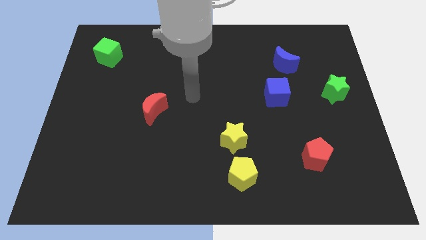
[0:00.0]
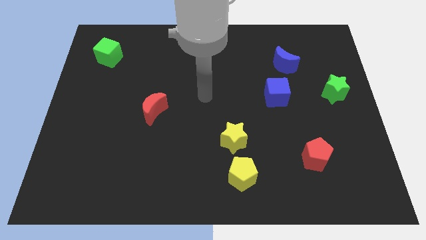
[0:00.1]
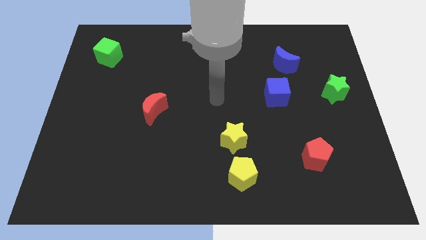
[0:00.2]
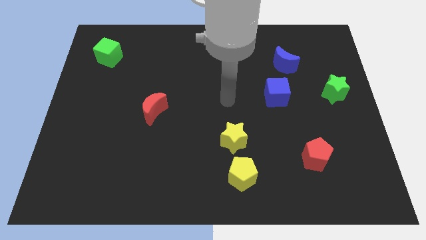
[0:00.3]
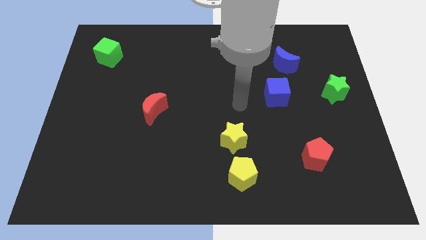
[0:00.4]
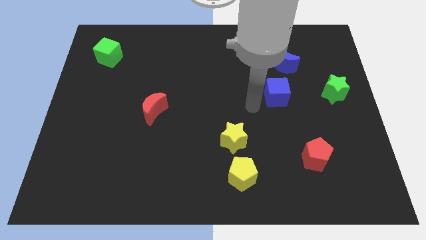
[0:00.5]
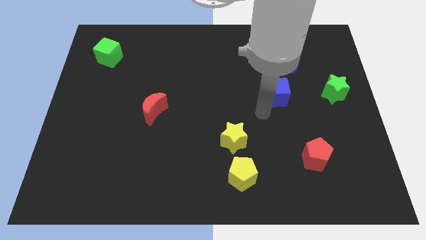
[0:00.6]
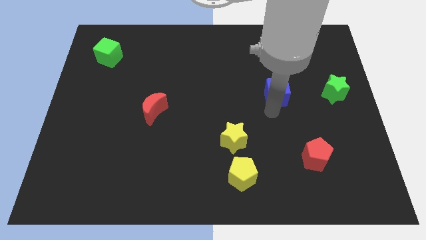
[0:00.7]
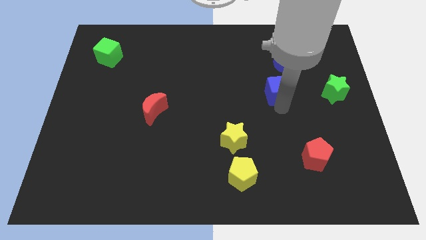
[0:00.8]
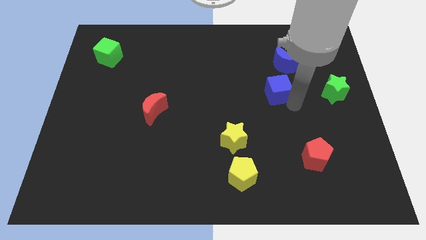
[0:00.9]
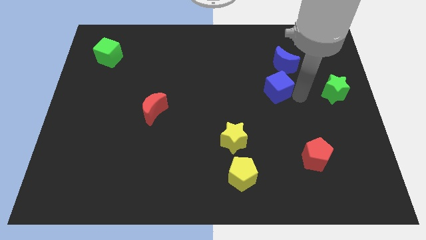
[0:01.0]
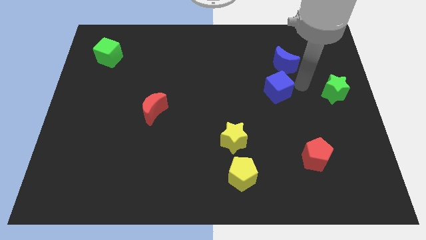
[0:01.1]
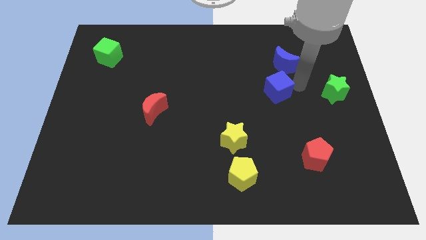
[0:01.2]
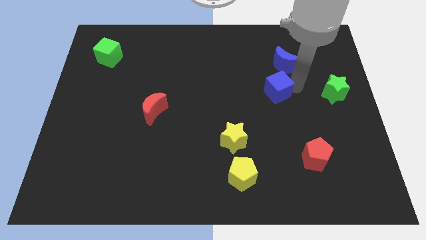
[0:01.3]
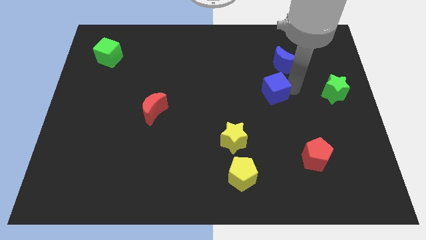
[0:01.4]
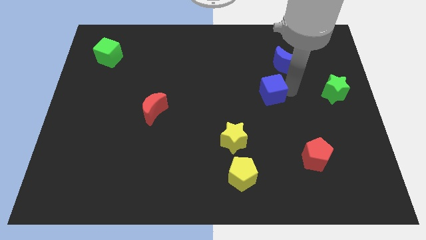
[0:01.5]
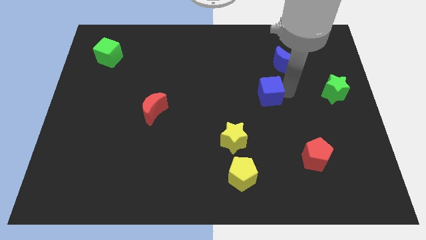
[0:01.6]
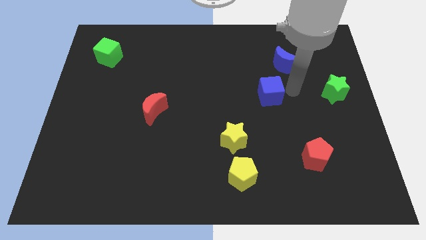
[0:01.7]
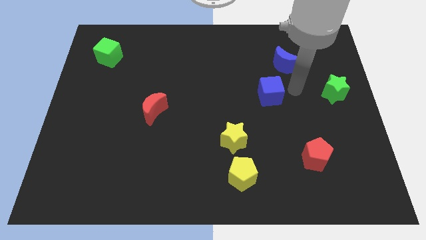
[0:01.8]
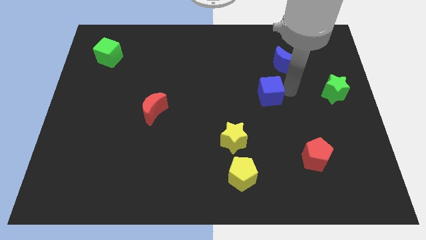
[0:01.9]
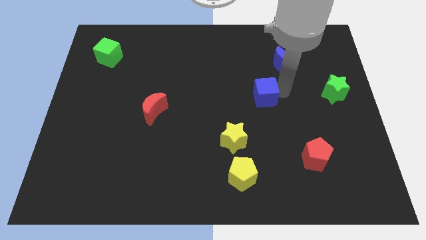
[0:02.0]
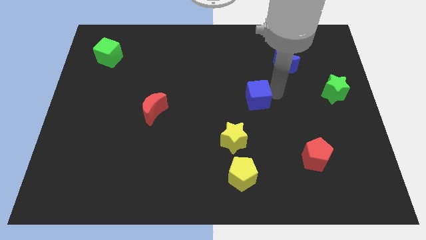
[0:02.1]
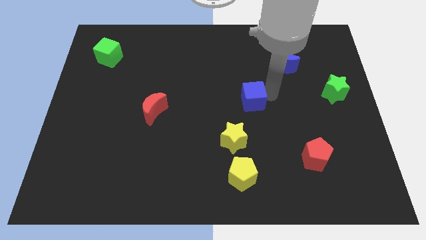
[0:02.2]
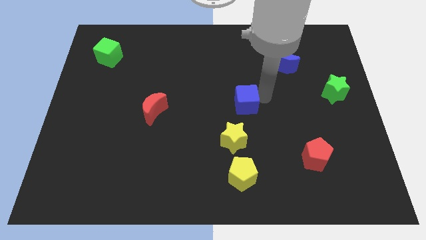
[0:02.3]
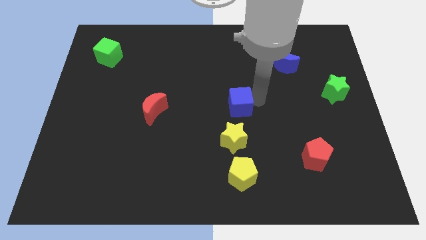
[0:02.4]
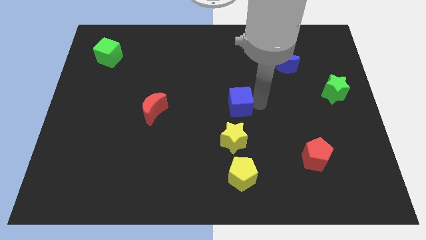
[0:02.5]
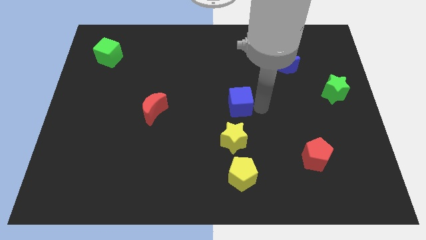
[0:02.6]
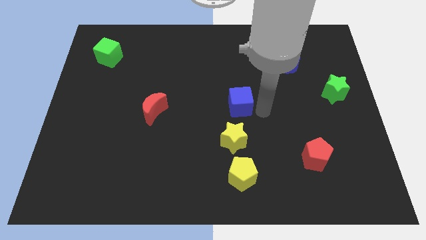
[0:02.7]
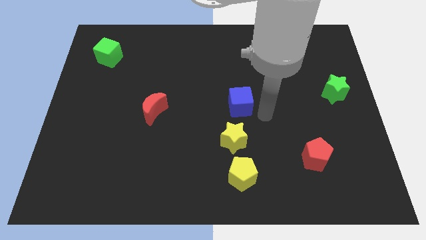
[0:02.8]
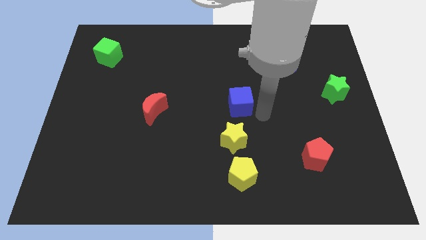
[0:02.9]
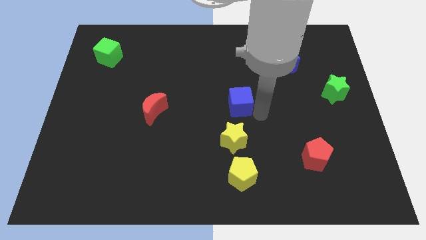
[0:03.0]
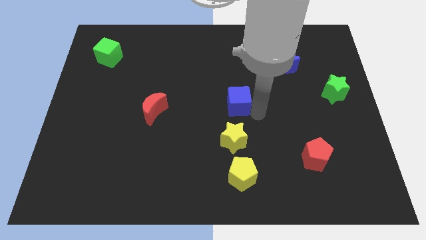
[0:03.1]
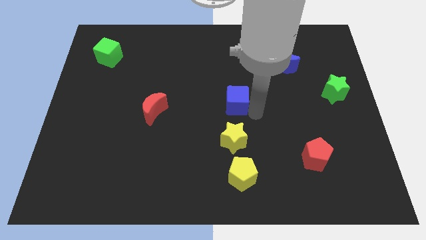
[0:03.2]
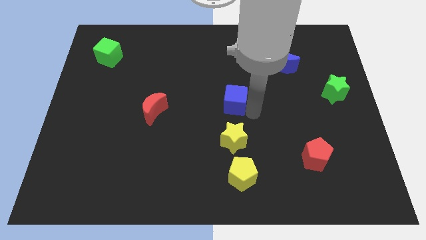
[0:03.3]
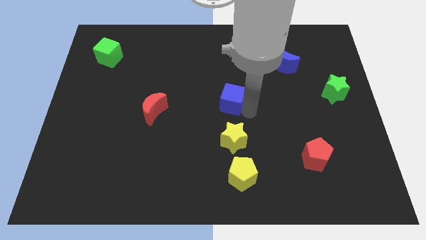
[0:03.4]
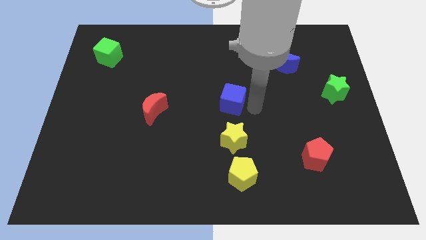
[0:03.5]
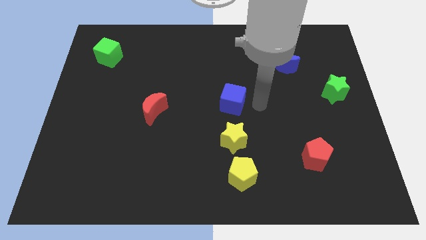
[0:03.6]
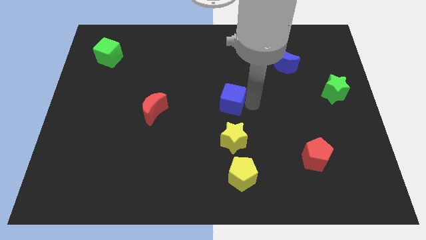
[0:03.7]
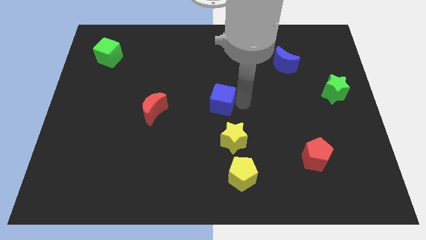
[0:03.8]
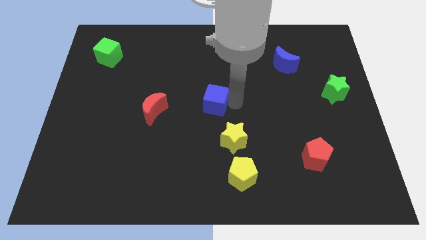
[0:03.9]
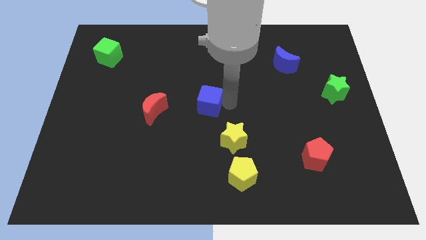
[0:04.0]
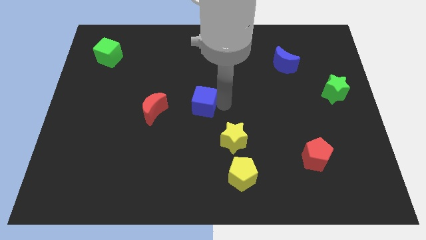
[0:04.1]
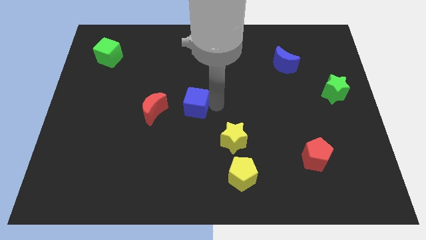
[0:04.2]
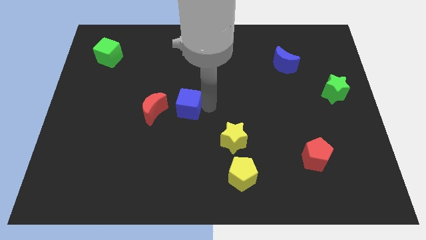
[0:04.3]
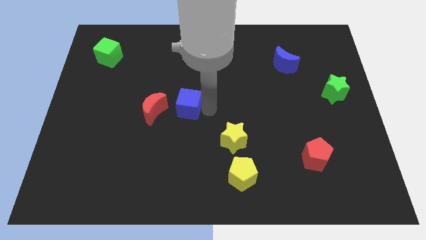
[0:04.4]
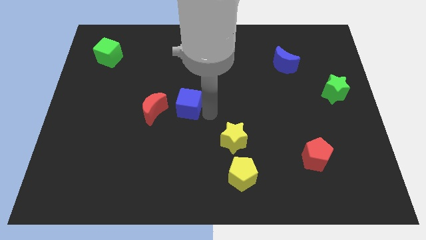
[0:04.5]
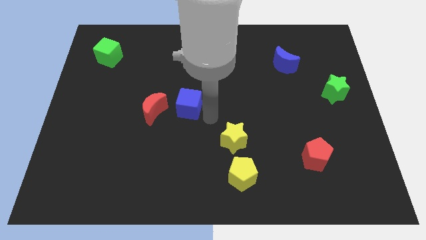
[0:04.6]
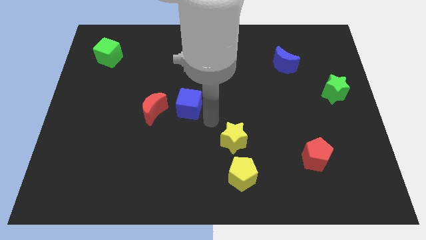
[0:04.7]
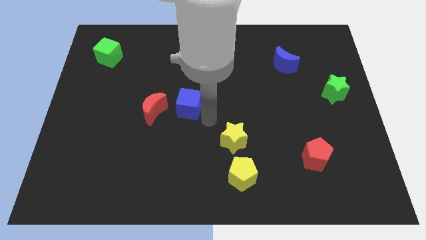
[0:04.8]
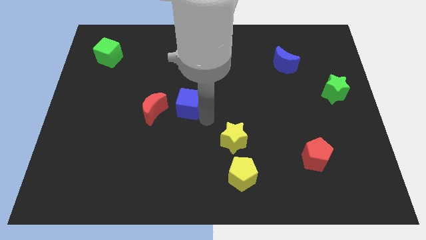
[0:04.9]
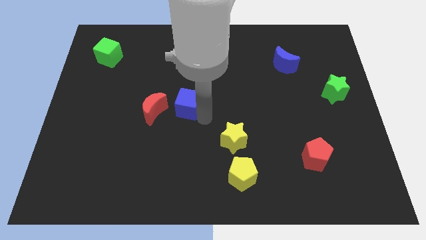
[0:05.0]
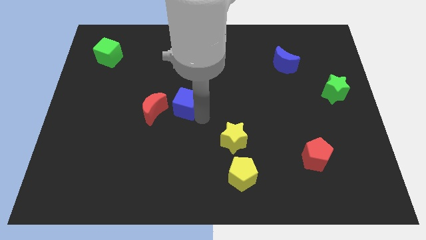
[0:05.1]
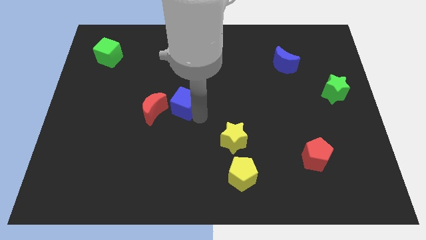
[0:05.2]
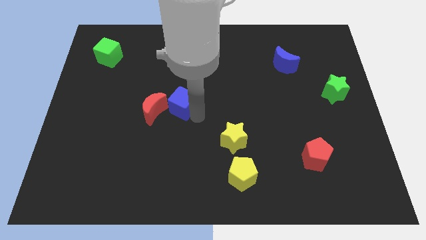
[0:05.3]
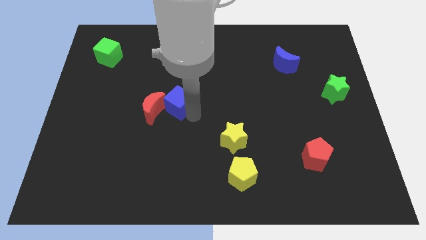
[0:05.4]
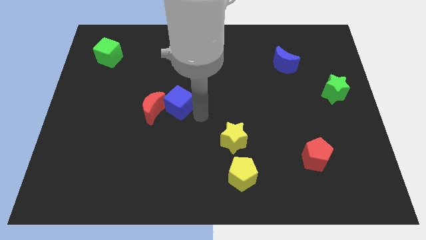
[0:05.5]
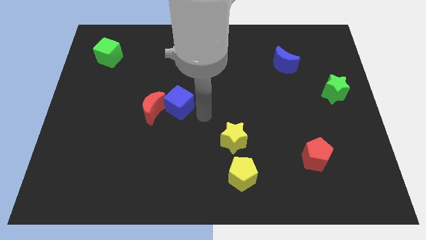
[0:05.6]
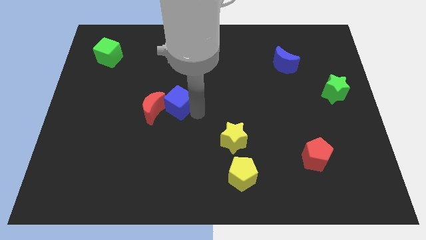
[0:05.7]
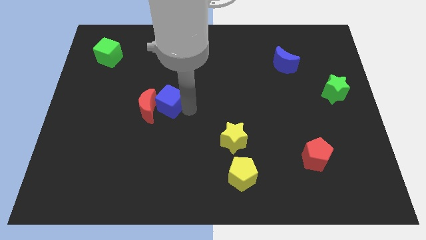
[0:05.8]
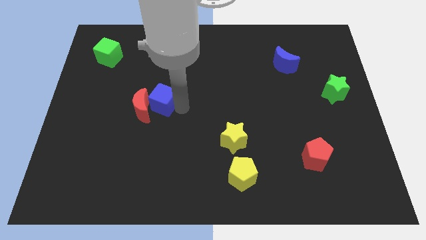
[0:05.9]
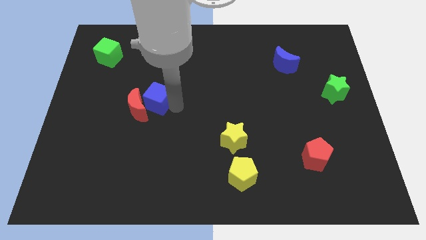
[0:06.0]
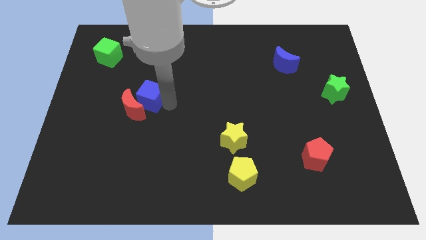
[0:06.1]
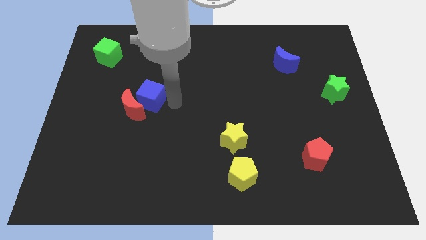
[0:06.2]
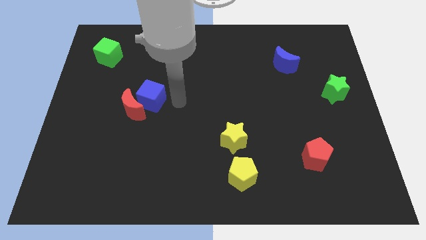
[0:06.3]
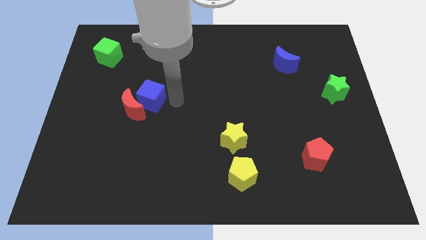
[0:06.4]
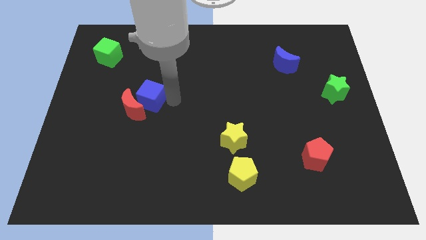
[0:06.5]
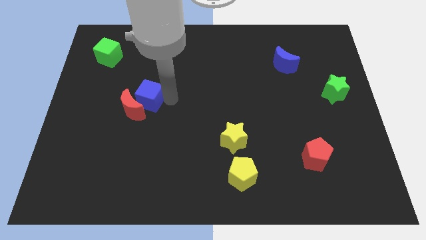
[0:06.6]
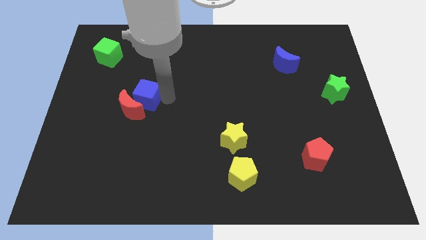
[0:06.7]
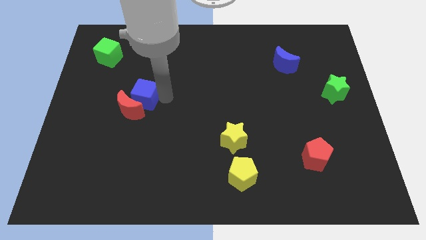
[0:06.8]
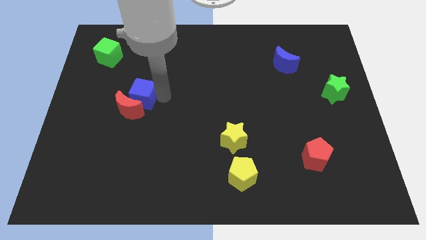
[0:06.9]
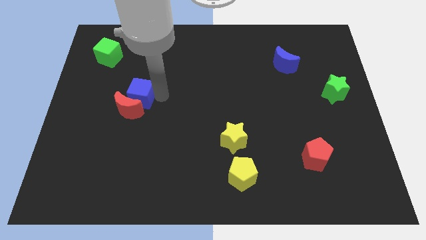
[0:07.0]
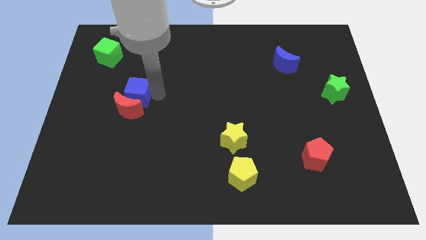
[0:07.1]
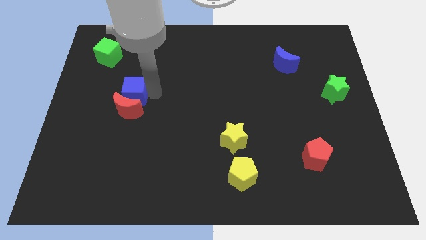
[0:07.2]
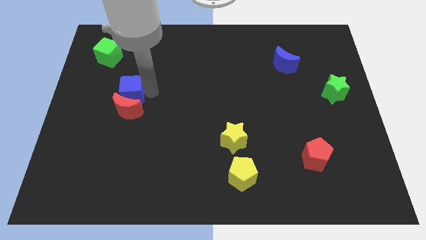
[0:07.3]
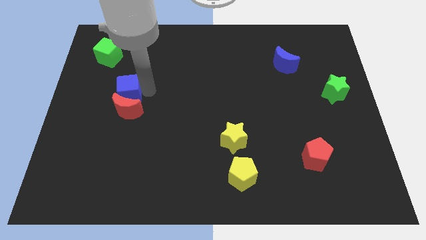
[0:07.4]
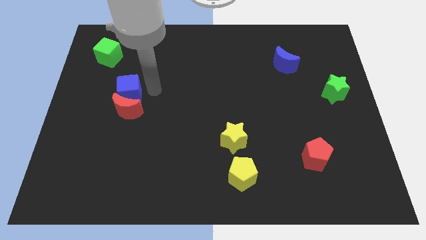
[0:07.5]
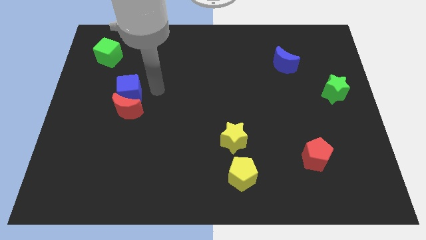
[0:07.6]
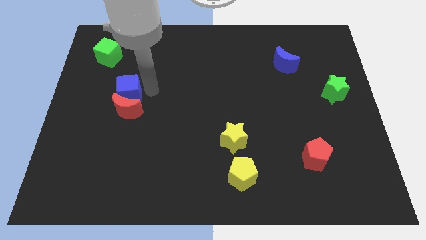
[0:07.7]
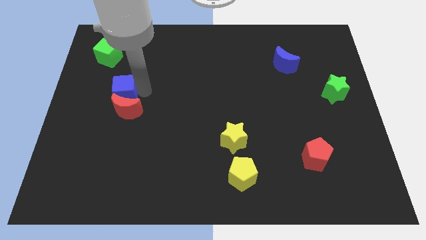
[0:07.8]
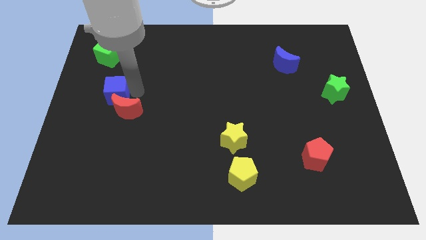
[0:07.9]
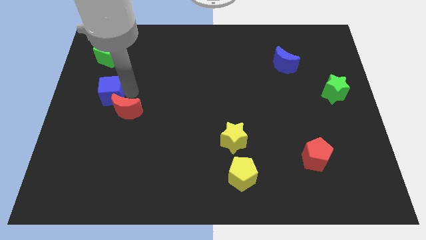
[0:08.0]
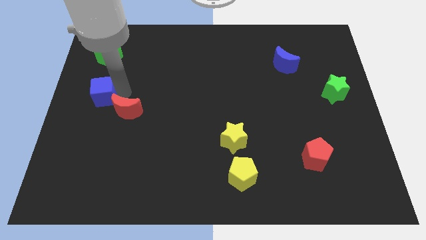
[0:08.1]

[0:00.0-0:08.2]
put the blue cube to the left side of the board
